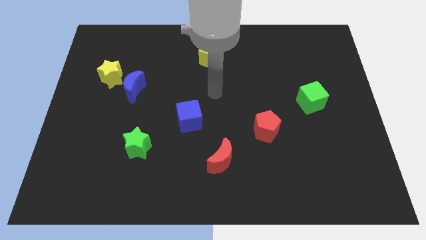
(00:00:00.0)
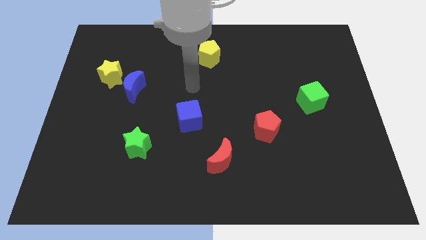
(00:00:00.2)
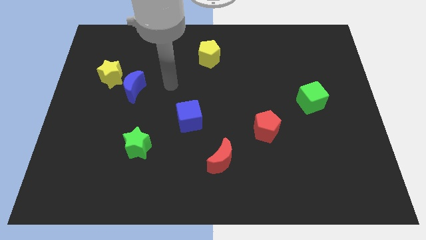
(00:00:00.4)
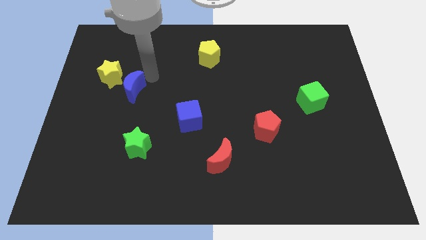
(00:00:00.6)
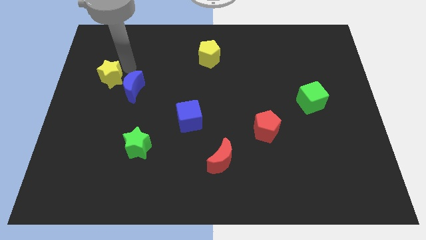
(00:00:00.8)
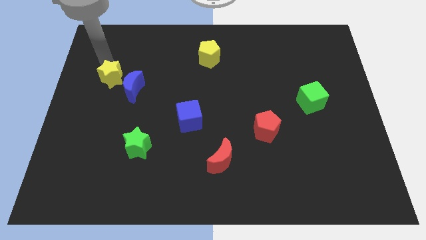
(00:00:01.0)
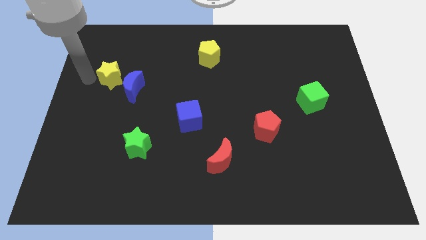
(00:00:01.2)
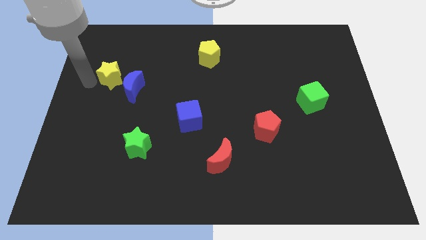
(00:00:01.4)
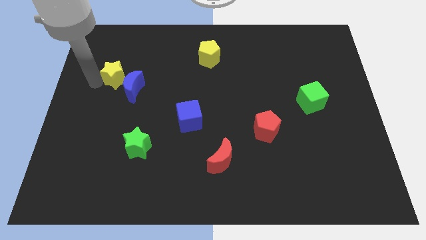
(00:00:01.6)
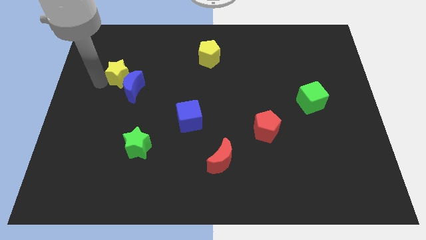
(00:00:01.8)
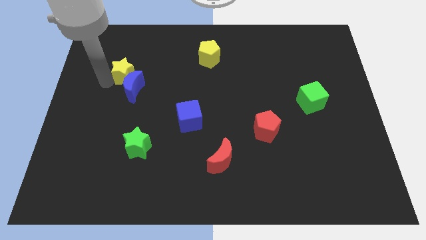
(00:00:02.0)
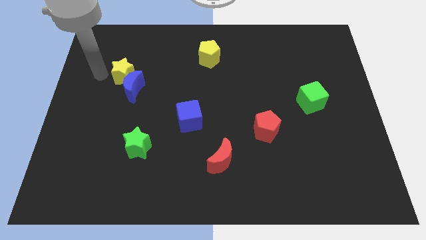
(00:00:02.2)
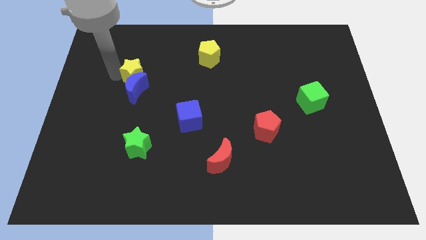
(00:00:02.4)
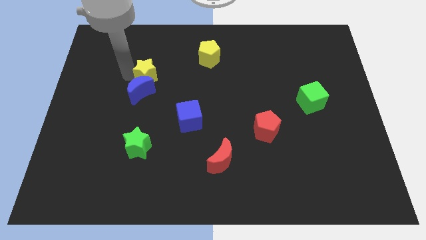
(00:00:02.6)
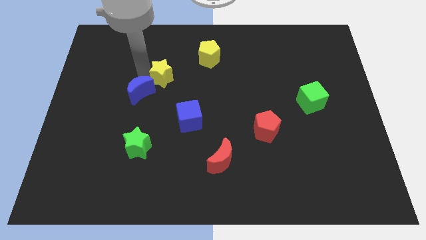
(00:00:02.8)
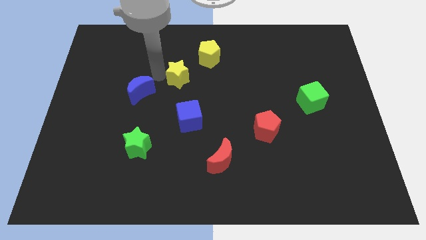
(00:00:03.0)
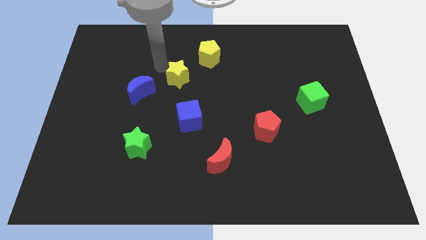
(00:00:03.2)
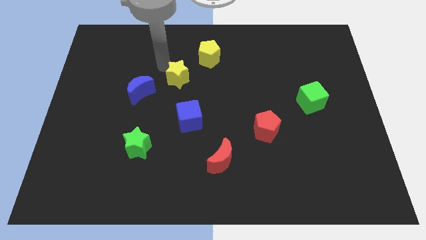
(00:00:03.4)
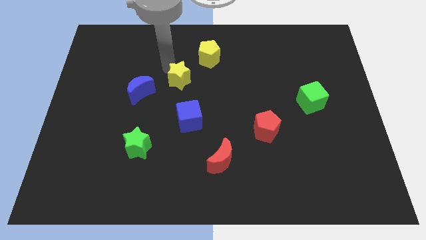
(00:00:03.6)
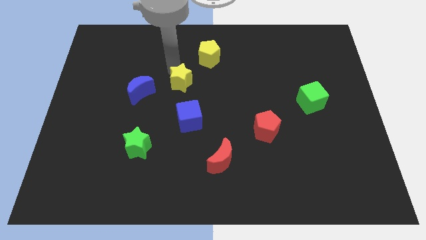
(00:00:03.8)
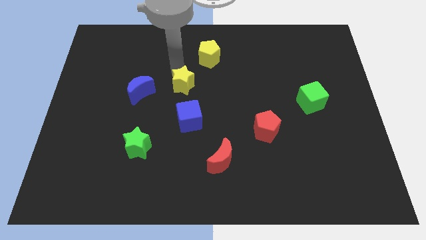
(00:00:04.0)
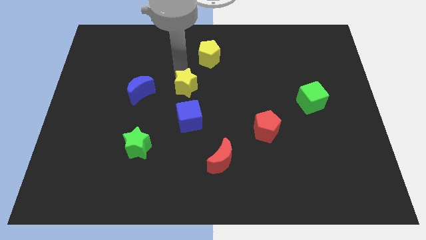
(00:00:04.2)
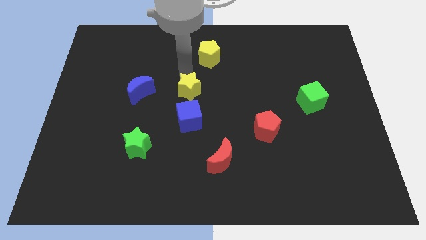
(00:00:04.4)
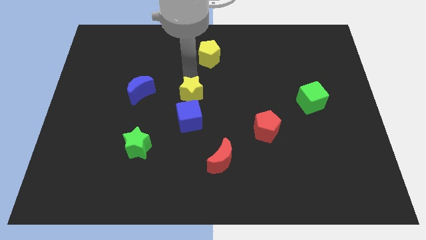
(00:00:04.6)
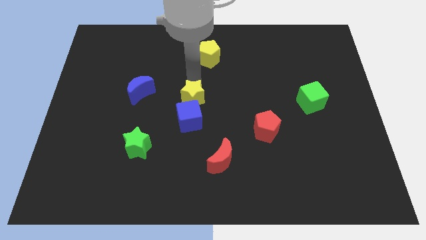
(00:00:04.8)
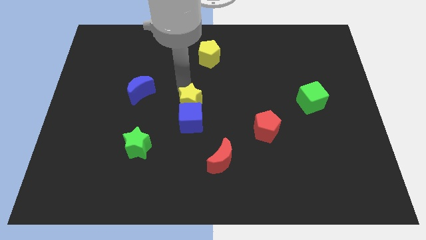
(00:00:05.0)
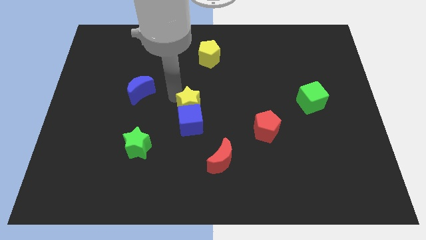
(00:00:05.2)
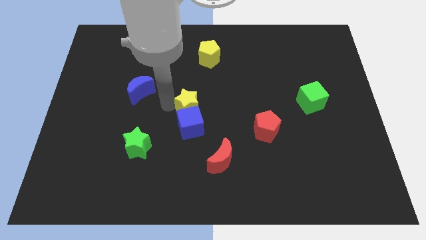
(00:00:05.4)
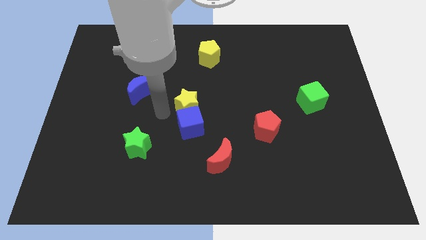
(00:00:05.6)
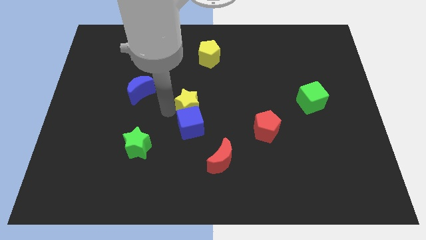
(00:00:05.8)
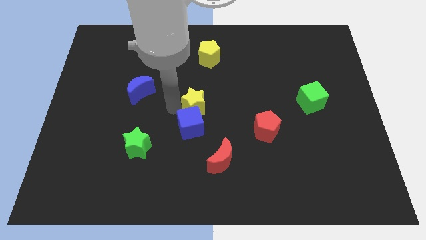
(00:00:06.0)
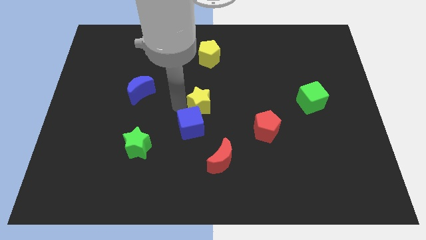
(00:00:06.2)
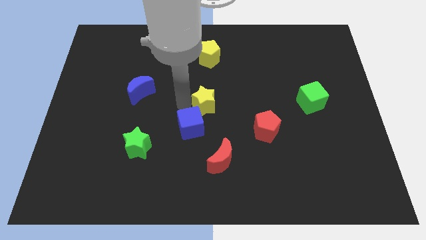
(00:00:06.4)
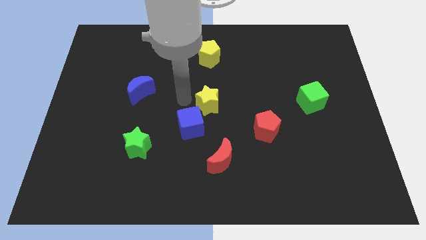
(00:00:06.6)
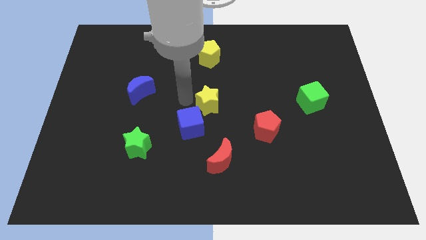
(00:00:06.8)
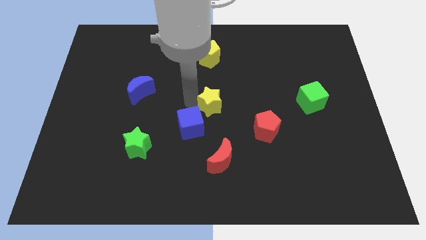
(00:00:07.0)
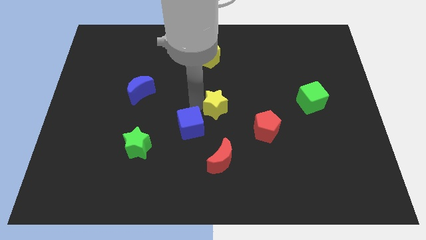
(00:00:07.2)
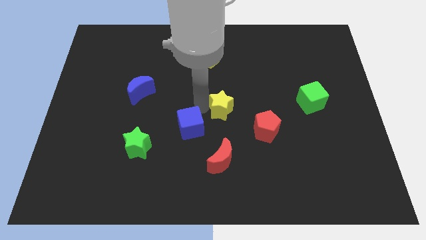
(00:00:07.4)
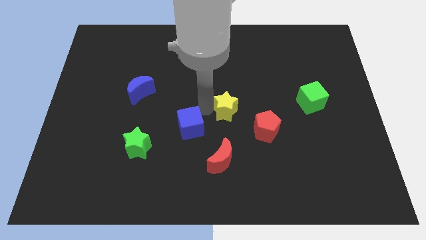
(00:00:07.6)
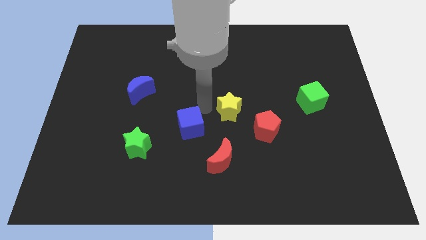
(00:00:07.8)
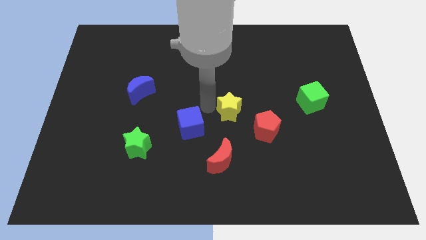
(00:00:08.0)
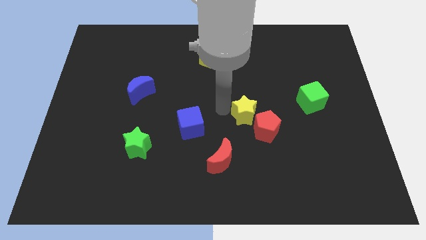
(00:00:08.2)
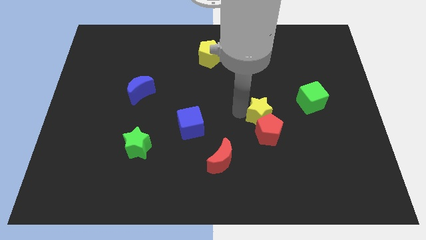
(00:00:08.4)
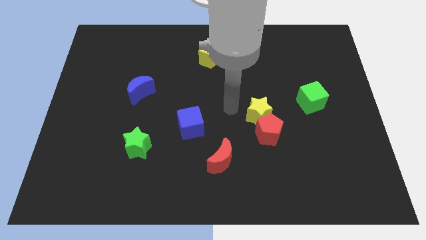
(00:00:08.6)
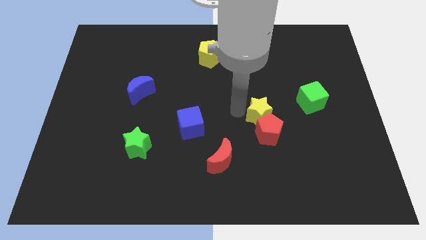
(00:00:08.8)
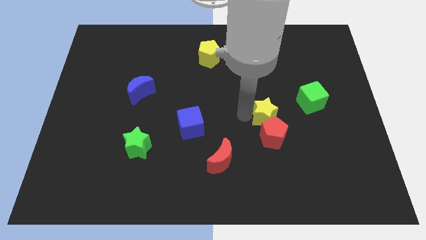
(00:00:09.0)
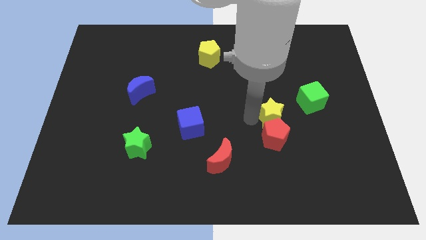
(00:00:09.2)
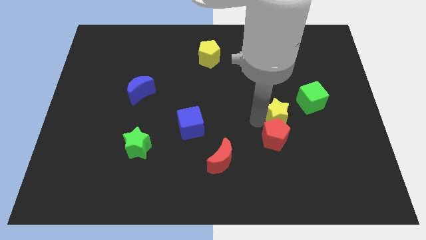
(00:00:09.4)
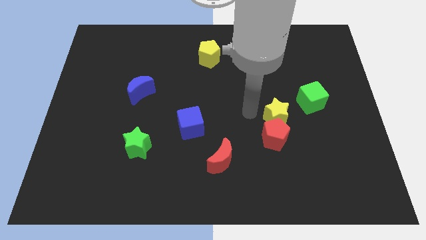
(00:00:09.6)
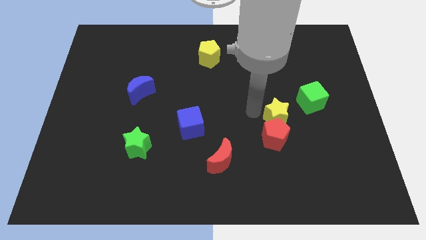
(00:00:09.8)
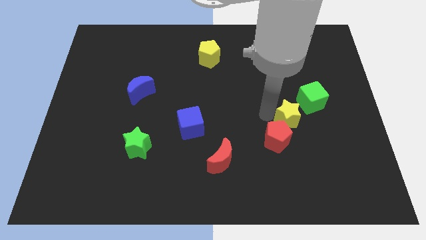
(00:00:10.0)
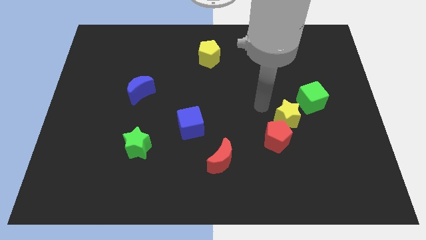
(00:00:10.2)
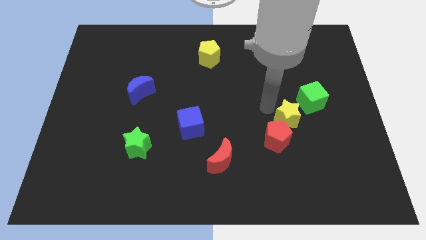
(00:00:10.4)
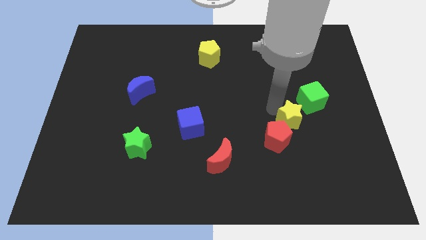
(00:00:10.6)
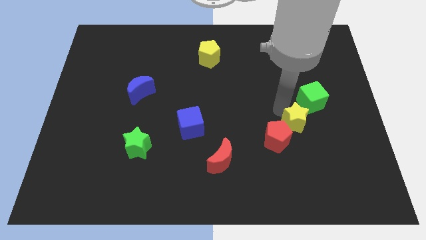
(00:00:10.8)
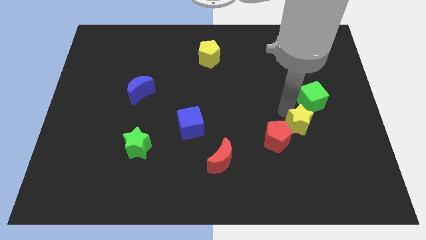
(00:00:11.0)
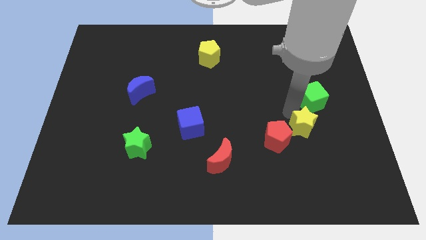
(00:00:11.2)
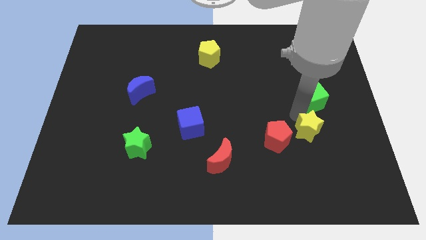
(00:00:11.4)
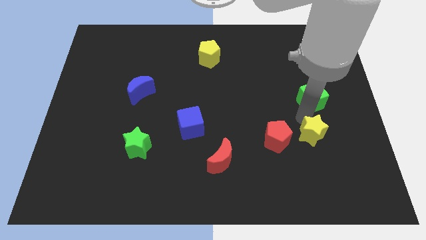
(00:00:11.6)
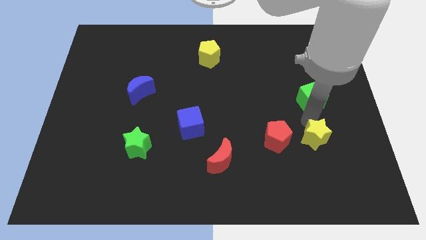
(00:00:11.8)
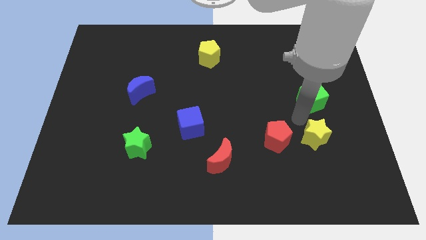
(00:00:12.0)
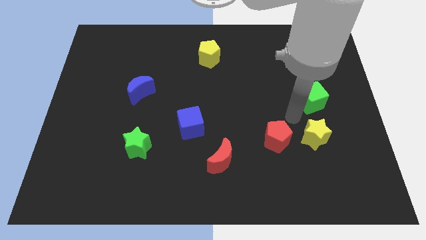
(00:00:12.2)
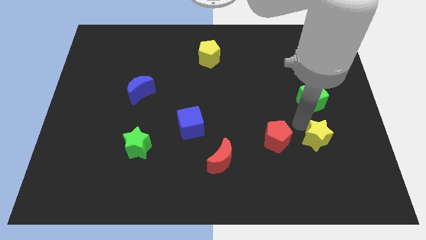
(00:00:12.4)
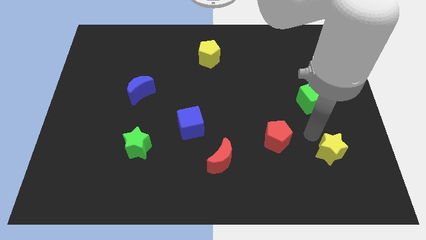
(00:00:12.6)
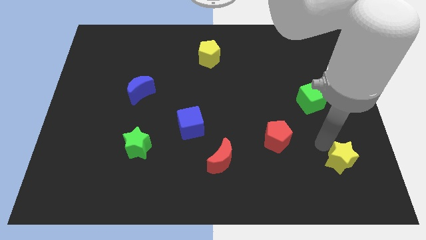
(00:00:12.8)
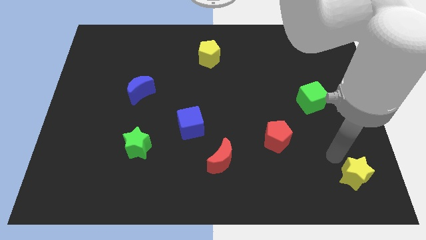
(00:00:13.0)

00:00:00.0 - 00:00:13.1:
move the yellow star to the lower right corner

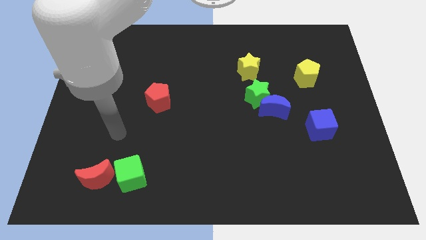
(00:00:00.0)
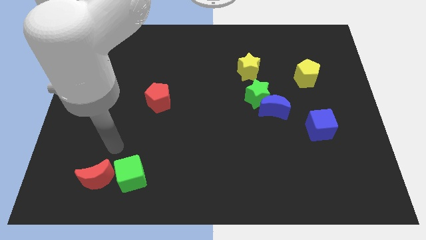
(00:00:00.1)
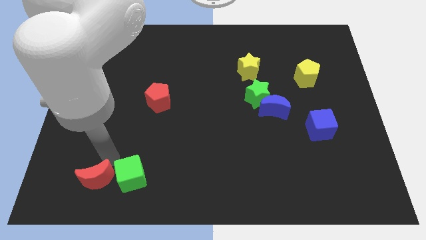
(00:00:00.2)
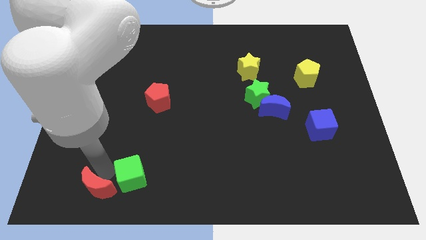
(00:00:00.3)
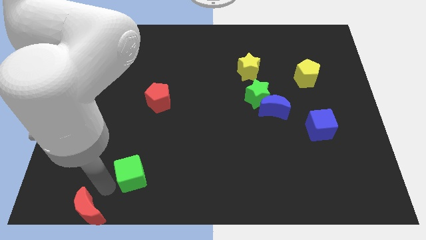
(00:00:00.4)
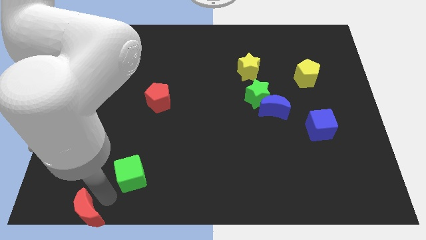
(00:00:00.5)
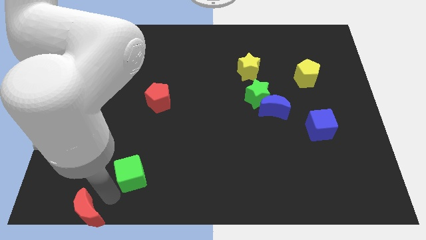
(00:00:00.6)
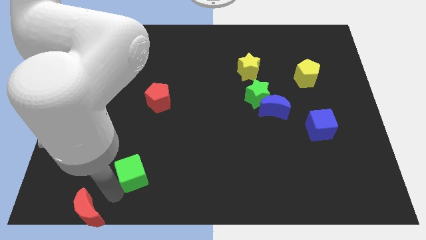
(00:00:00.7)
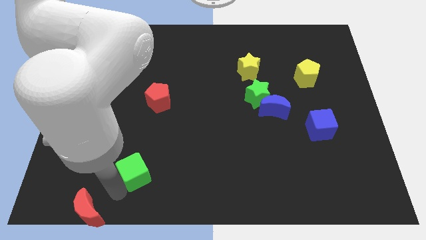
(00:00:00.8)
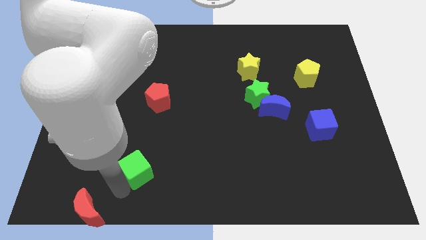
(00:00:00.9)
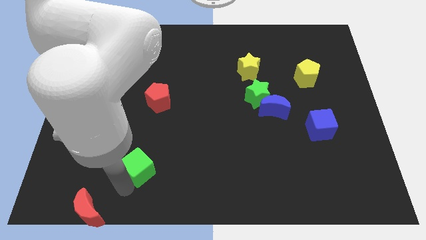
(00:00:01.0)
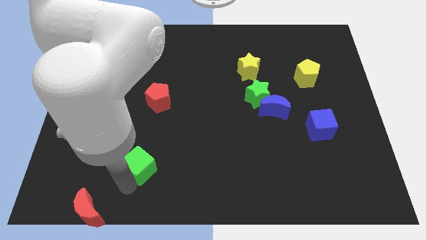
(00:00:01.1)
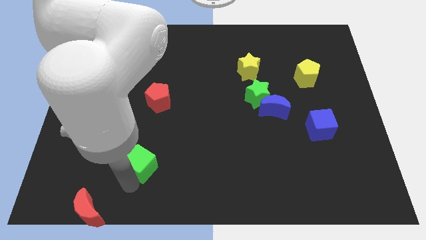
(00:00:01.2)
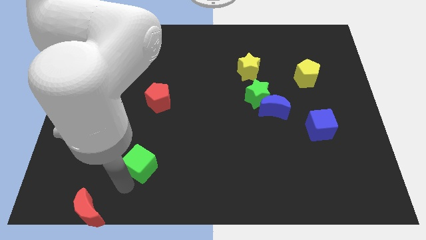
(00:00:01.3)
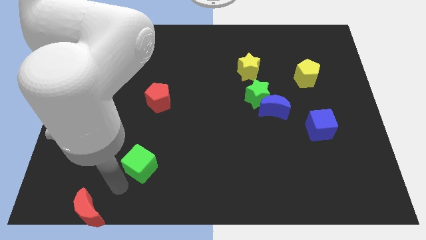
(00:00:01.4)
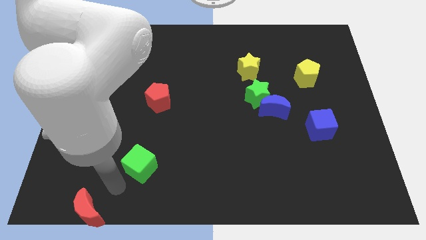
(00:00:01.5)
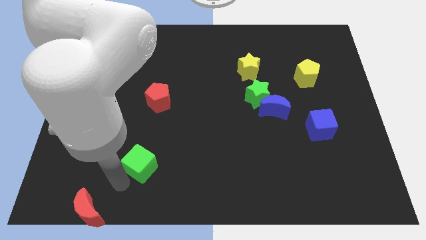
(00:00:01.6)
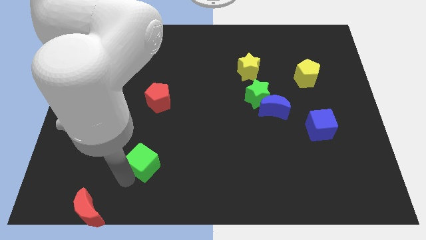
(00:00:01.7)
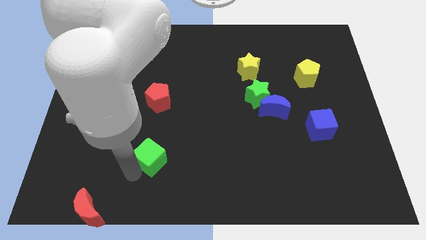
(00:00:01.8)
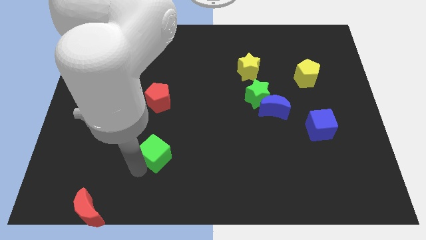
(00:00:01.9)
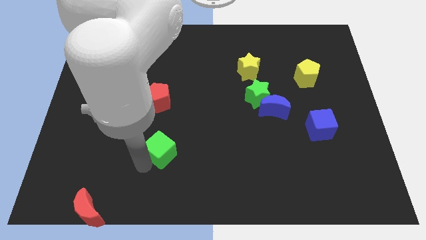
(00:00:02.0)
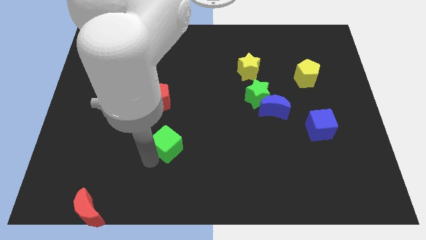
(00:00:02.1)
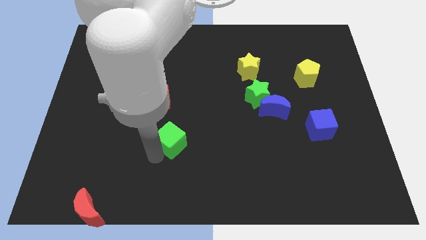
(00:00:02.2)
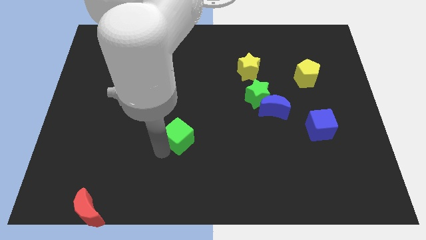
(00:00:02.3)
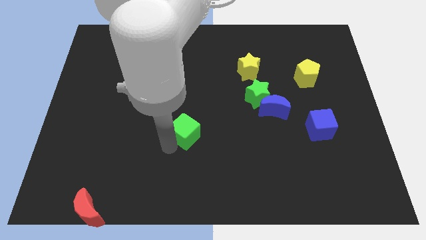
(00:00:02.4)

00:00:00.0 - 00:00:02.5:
push the green cube to the middle of the board
